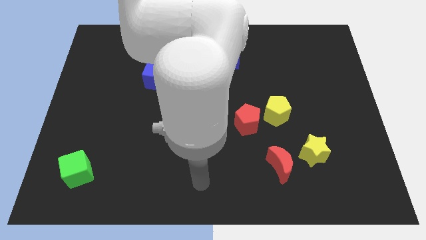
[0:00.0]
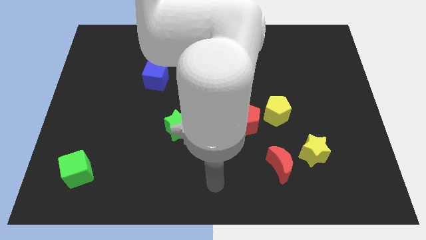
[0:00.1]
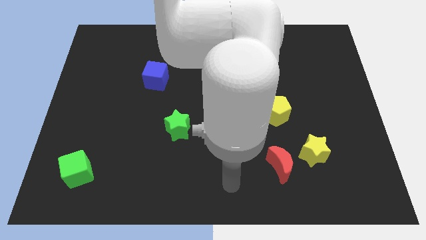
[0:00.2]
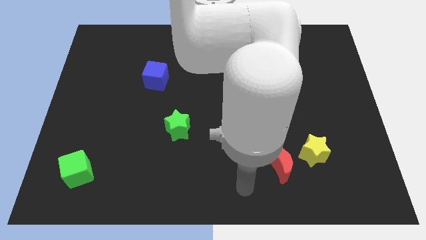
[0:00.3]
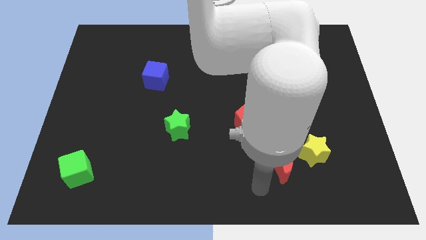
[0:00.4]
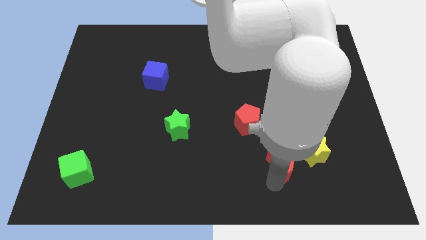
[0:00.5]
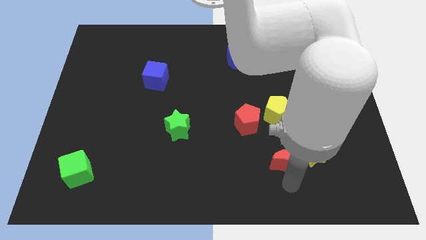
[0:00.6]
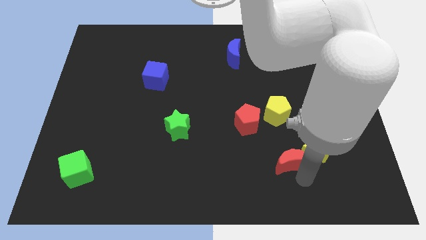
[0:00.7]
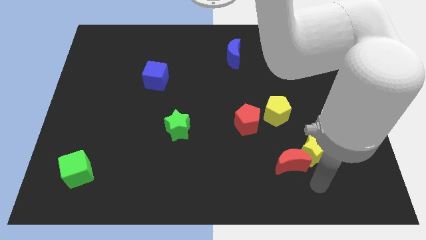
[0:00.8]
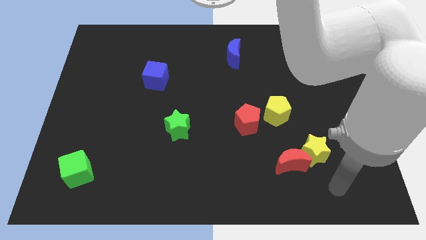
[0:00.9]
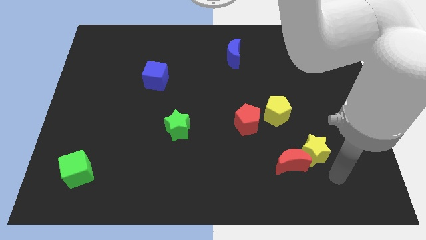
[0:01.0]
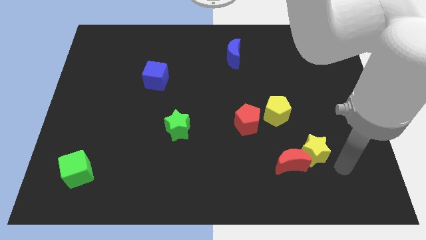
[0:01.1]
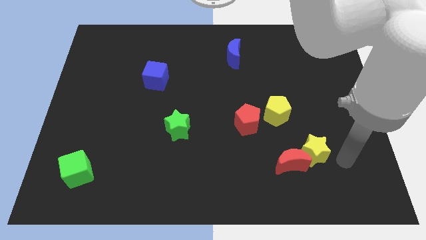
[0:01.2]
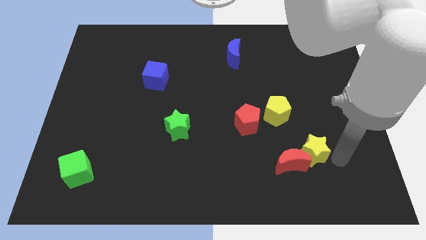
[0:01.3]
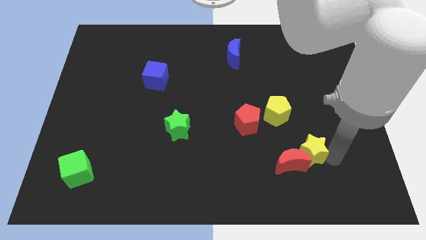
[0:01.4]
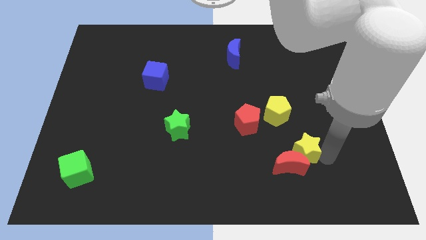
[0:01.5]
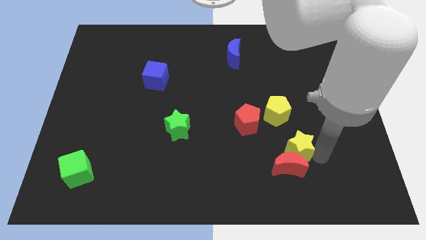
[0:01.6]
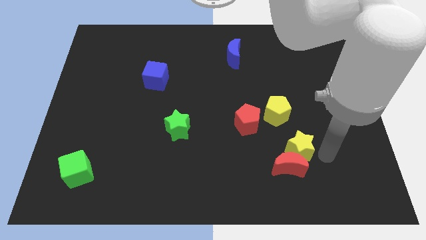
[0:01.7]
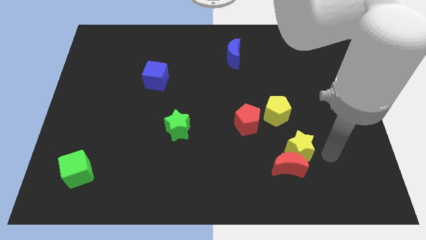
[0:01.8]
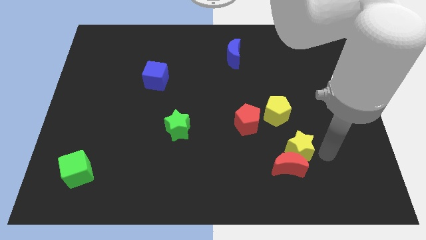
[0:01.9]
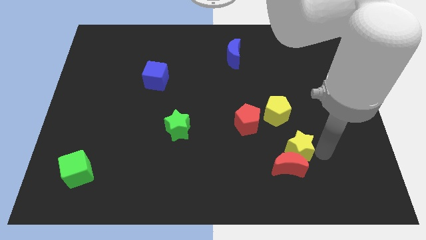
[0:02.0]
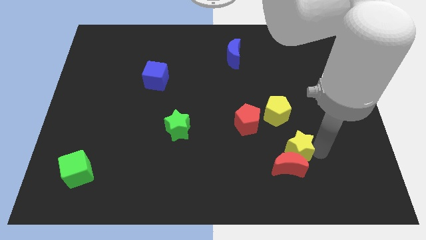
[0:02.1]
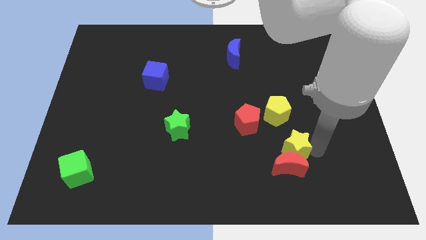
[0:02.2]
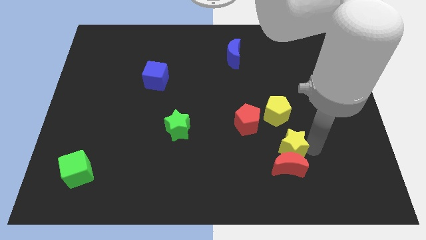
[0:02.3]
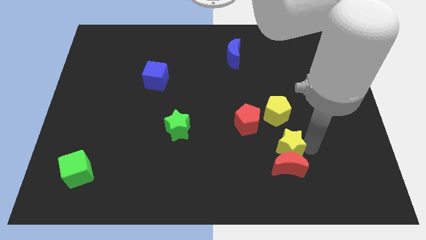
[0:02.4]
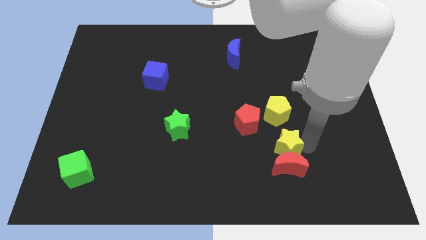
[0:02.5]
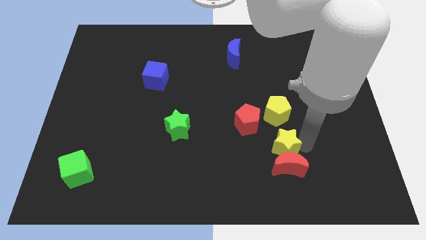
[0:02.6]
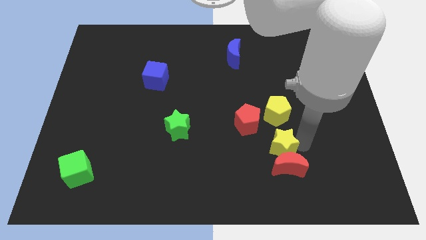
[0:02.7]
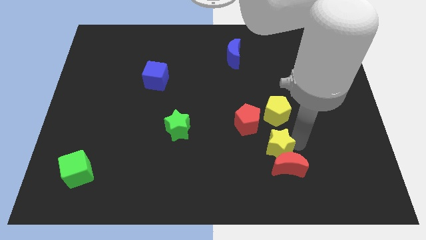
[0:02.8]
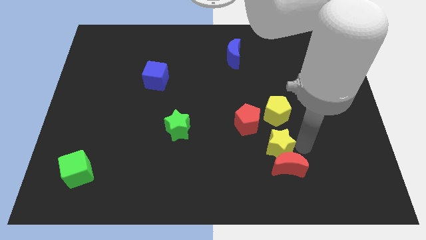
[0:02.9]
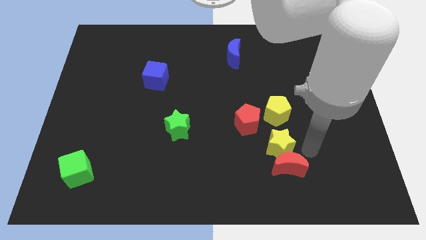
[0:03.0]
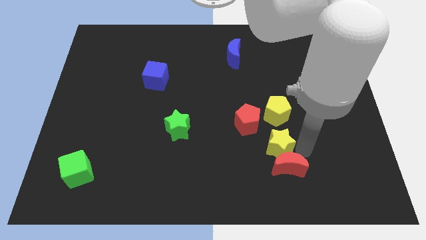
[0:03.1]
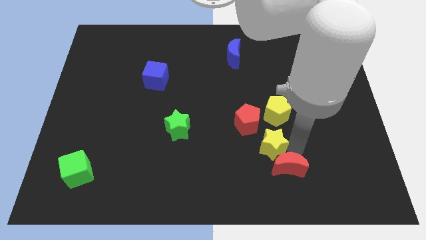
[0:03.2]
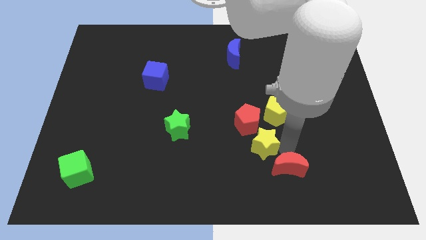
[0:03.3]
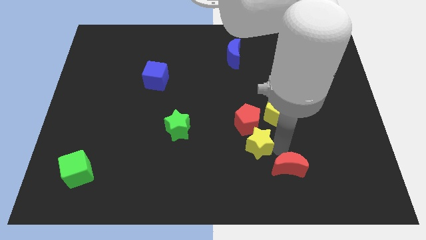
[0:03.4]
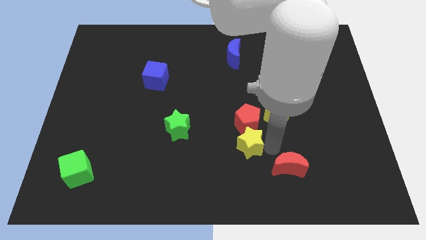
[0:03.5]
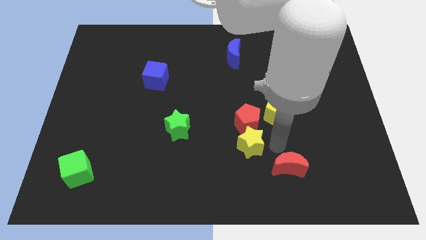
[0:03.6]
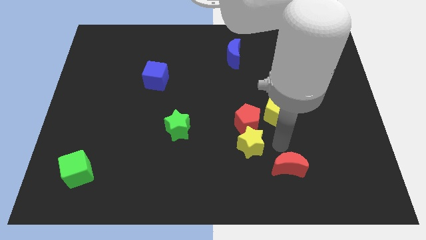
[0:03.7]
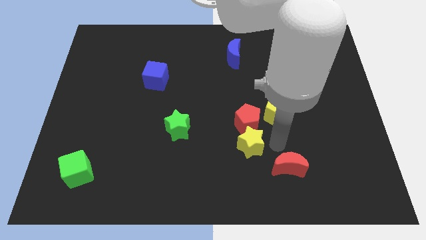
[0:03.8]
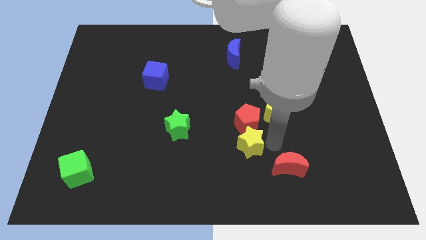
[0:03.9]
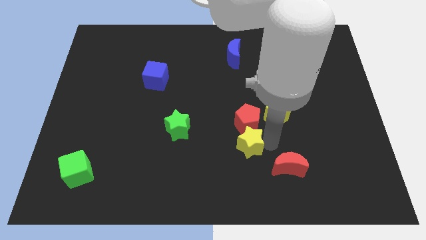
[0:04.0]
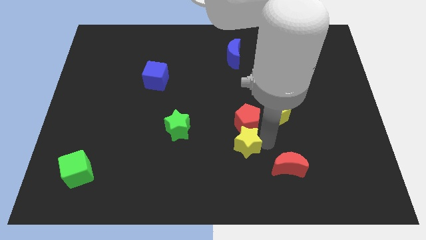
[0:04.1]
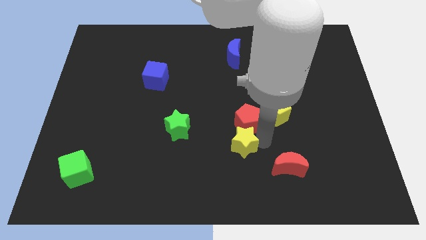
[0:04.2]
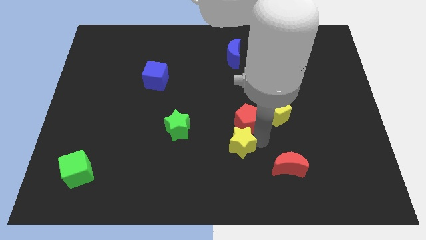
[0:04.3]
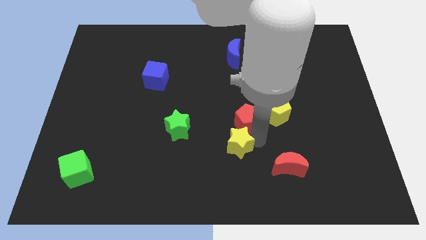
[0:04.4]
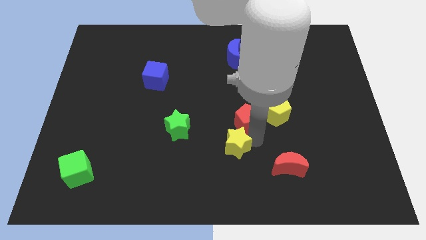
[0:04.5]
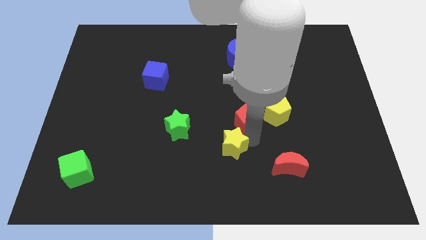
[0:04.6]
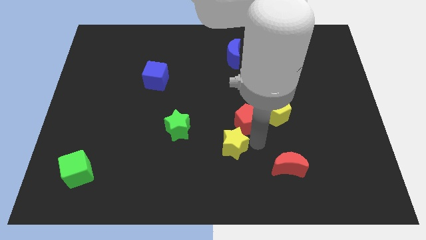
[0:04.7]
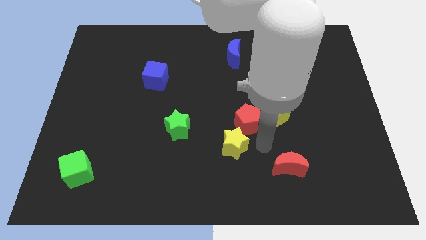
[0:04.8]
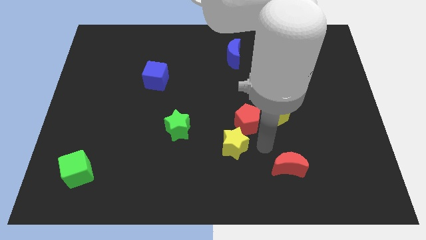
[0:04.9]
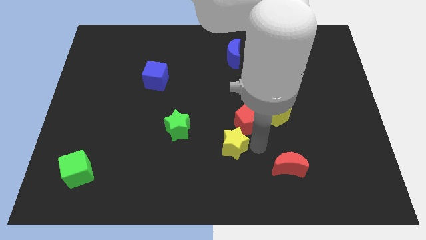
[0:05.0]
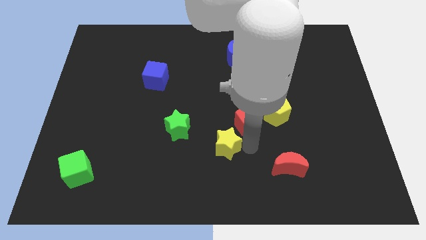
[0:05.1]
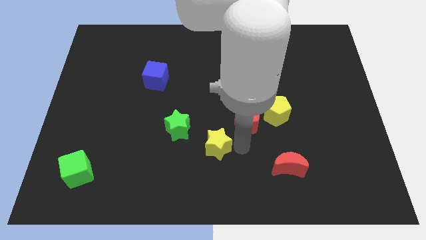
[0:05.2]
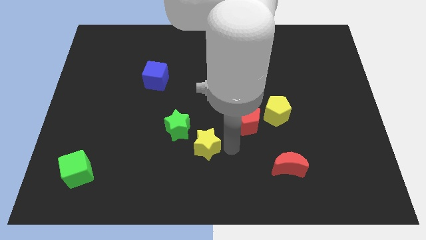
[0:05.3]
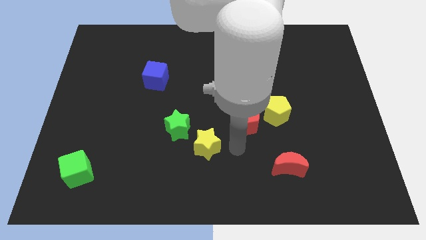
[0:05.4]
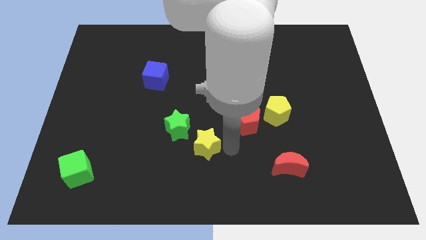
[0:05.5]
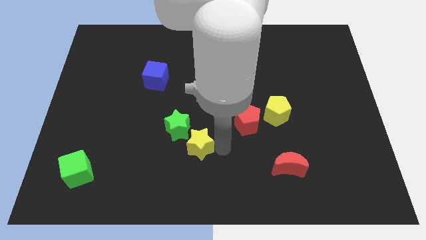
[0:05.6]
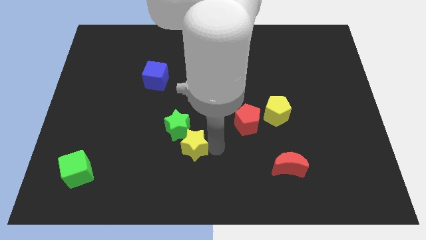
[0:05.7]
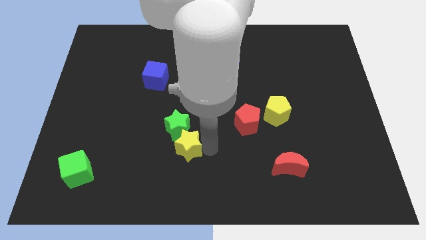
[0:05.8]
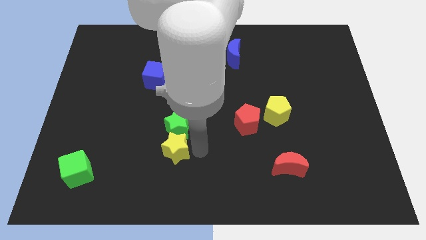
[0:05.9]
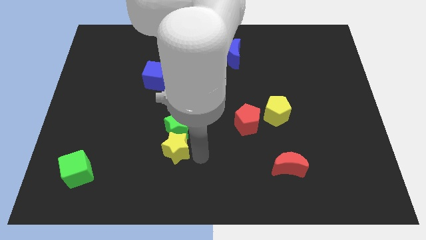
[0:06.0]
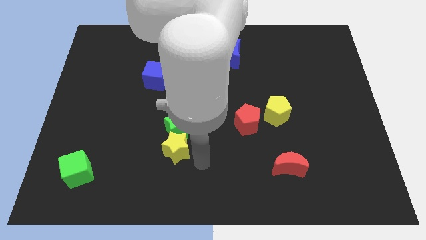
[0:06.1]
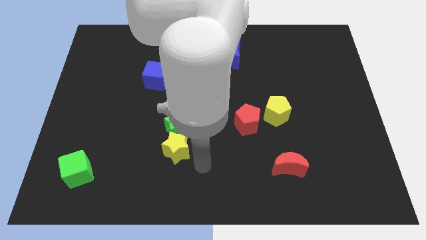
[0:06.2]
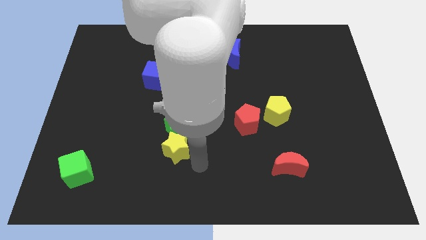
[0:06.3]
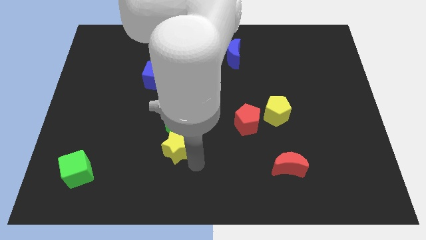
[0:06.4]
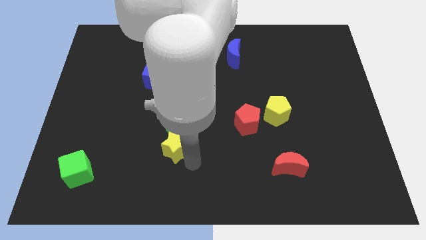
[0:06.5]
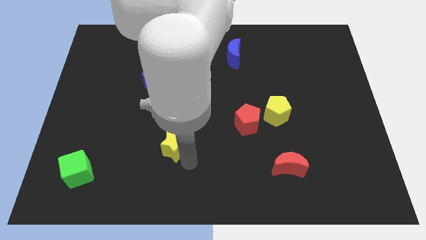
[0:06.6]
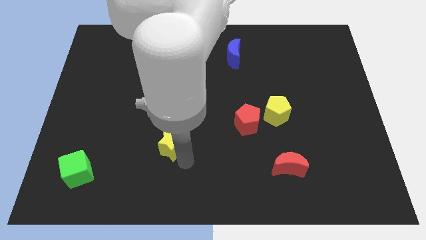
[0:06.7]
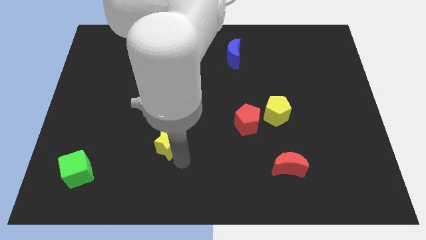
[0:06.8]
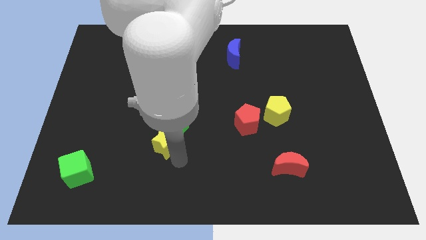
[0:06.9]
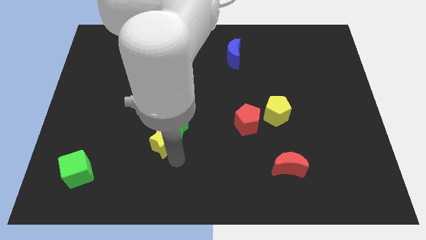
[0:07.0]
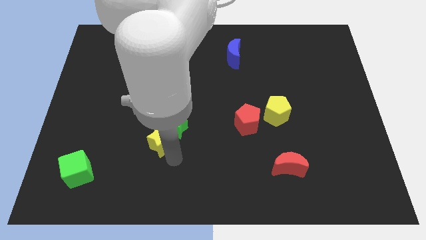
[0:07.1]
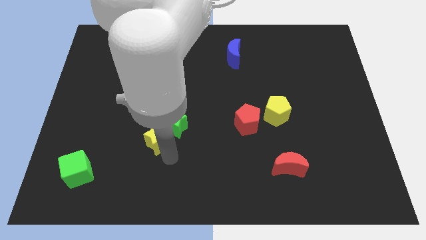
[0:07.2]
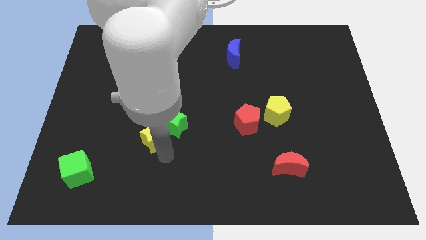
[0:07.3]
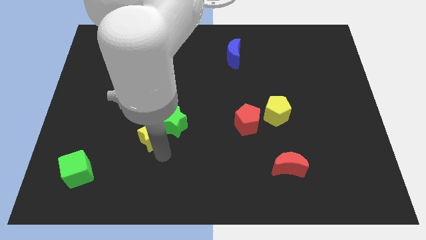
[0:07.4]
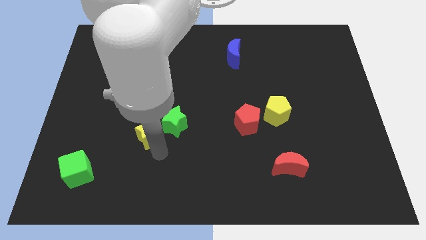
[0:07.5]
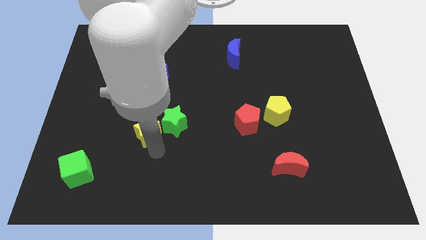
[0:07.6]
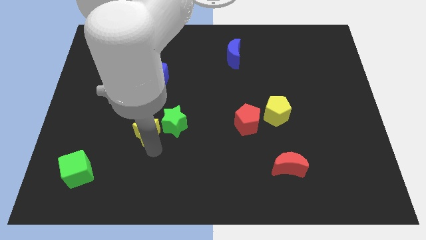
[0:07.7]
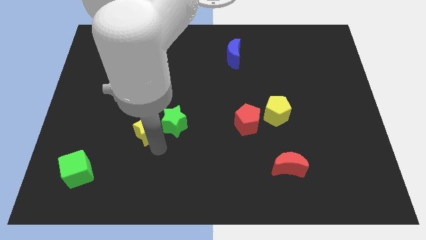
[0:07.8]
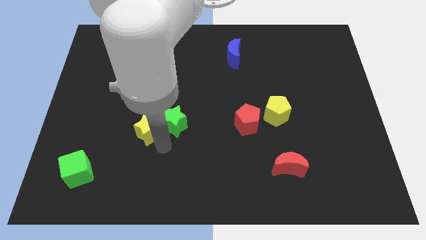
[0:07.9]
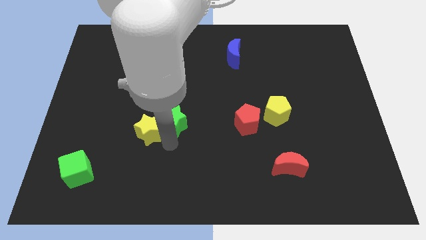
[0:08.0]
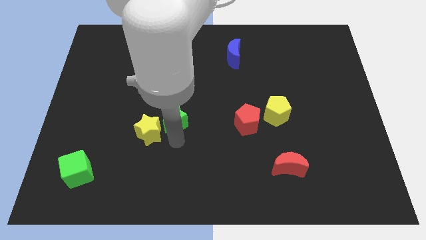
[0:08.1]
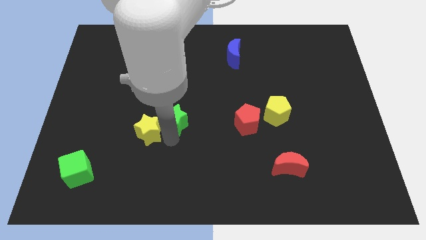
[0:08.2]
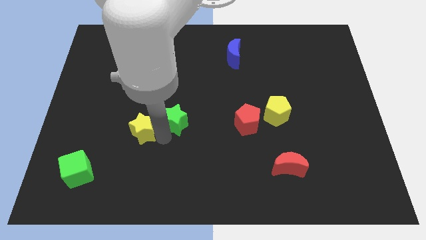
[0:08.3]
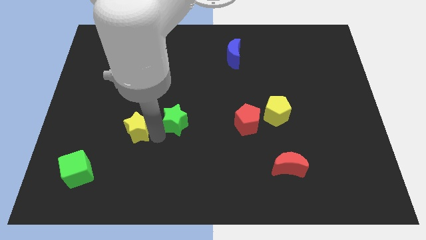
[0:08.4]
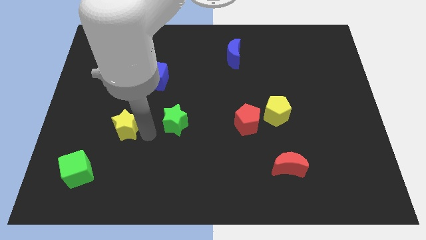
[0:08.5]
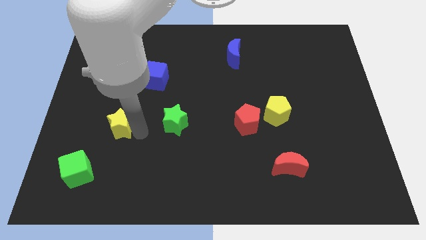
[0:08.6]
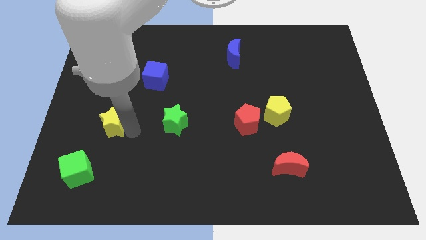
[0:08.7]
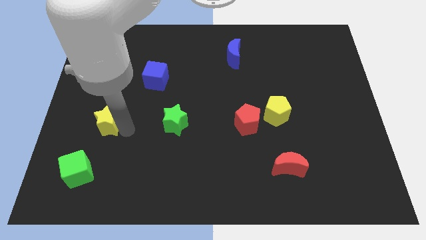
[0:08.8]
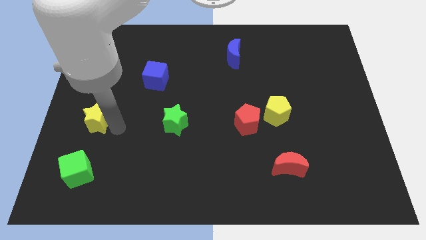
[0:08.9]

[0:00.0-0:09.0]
slide the yellow star to the left side
